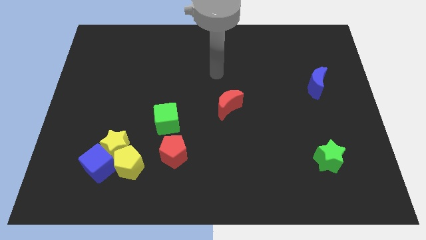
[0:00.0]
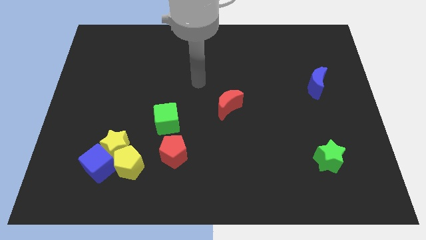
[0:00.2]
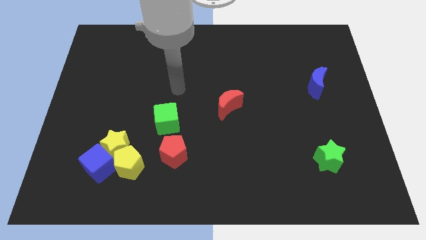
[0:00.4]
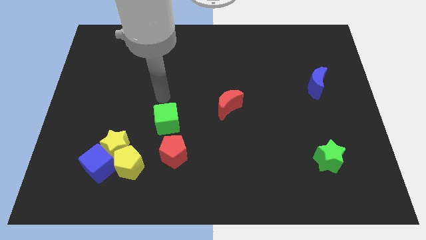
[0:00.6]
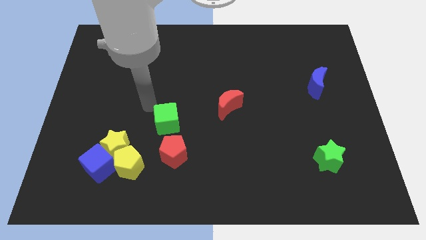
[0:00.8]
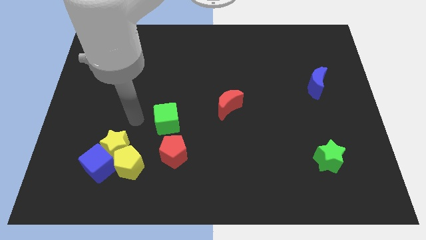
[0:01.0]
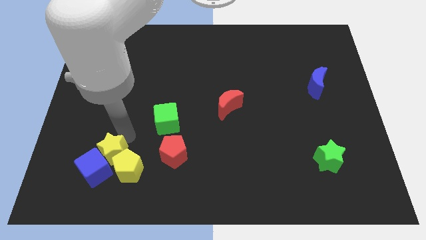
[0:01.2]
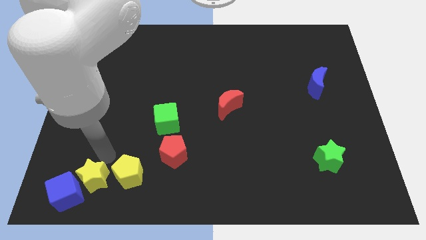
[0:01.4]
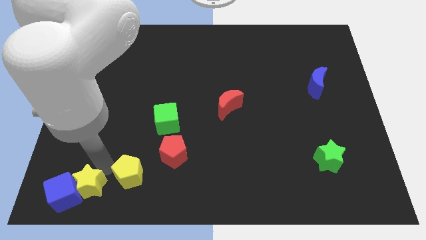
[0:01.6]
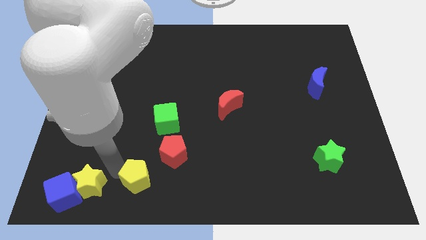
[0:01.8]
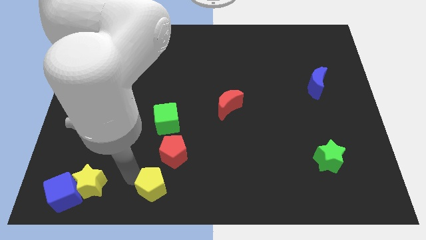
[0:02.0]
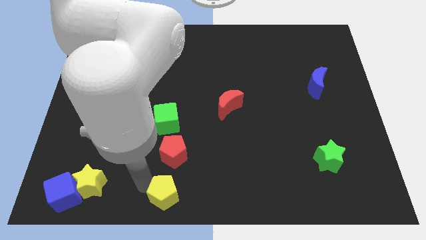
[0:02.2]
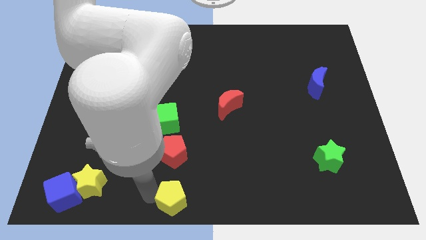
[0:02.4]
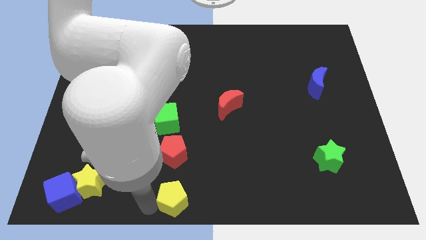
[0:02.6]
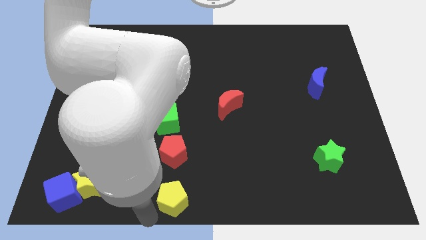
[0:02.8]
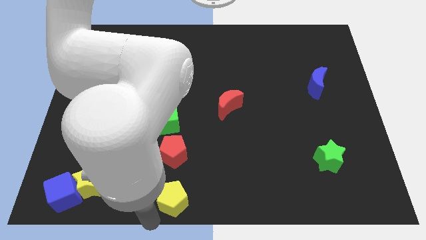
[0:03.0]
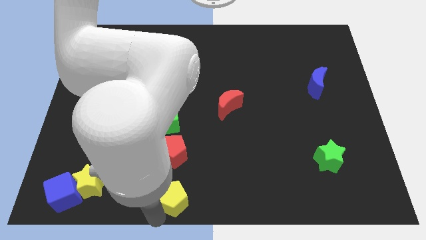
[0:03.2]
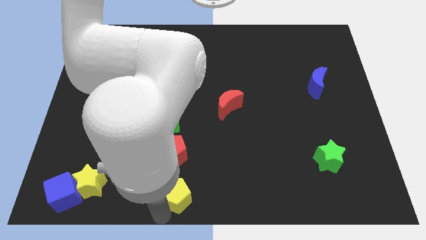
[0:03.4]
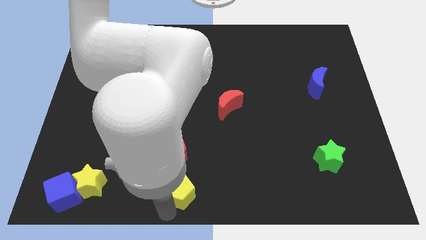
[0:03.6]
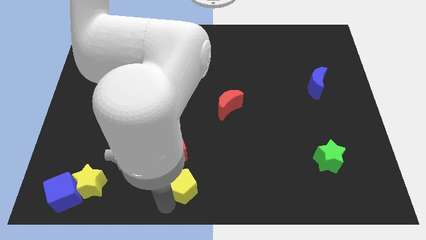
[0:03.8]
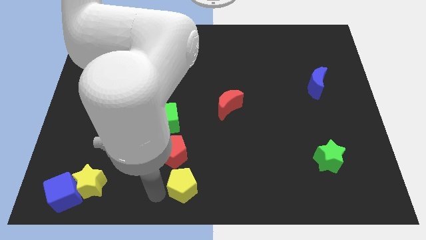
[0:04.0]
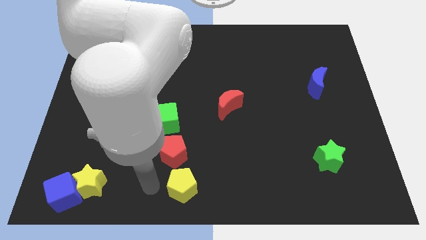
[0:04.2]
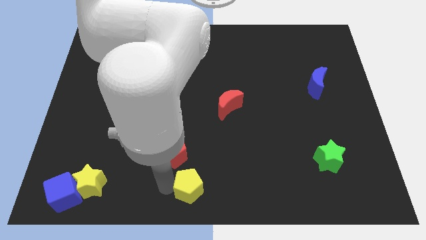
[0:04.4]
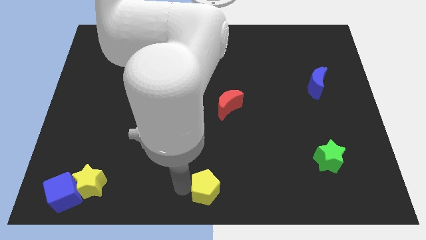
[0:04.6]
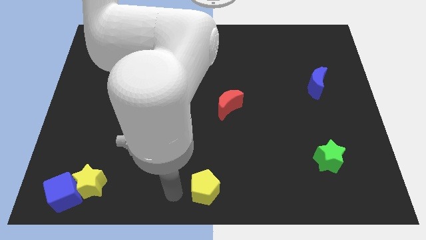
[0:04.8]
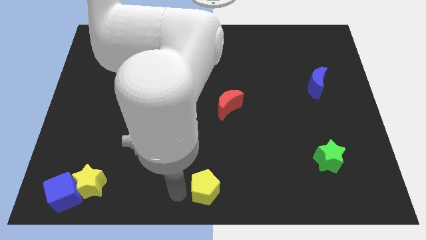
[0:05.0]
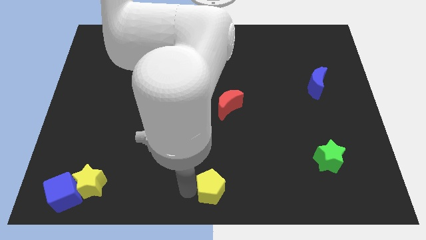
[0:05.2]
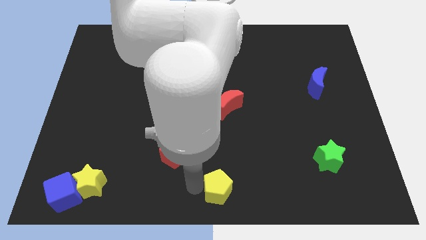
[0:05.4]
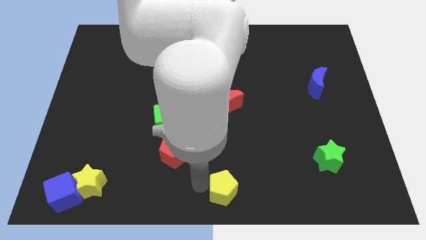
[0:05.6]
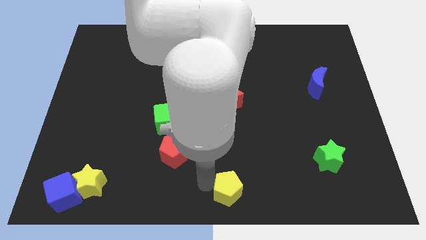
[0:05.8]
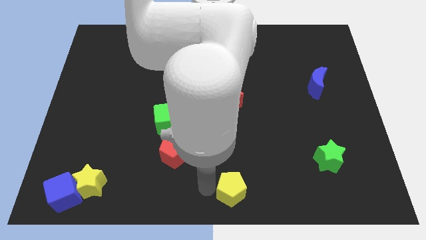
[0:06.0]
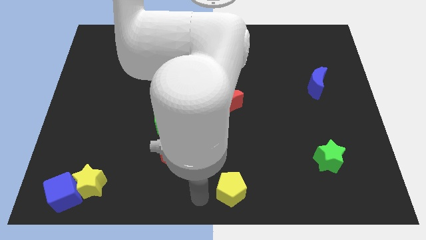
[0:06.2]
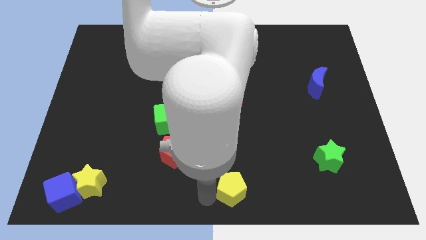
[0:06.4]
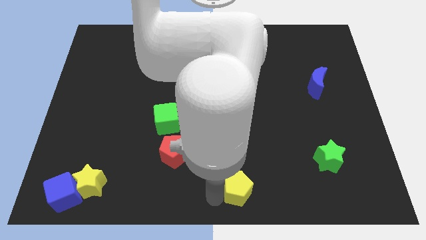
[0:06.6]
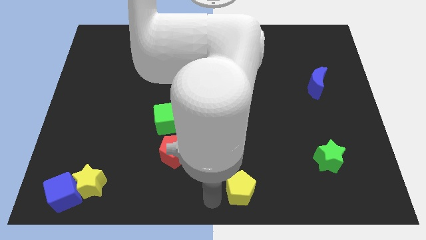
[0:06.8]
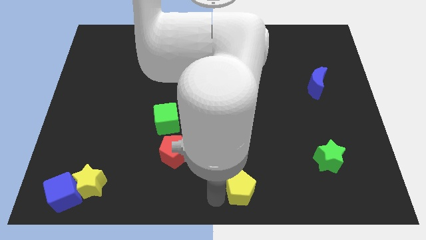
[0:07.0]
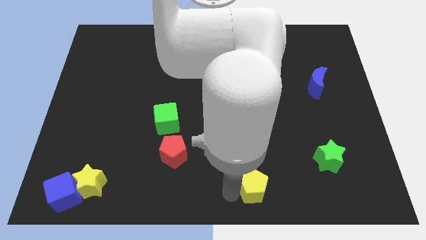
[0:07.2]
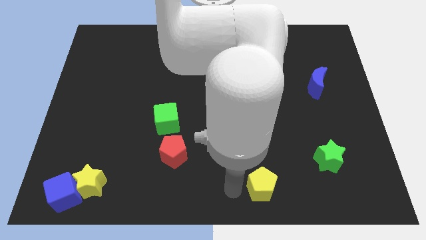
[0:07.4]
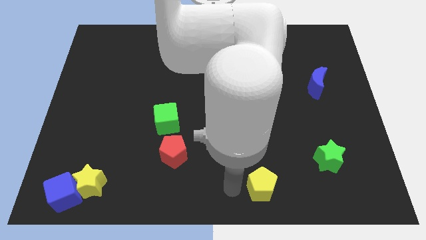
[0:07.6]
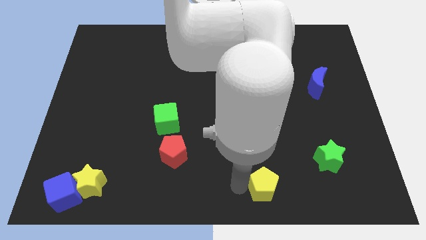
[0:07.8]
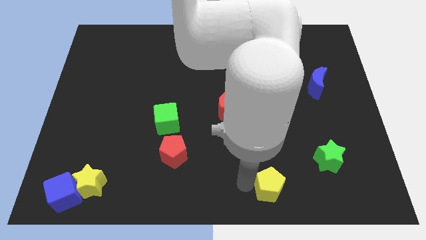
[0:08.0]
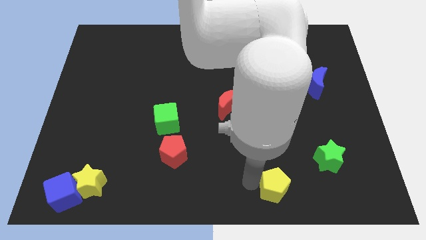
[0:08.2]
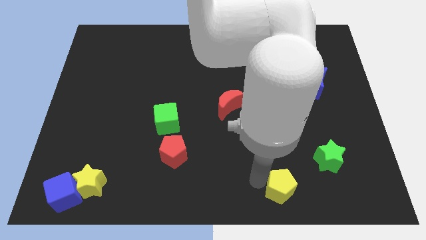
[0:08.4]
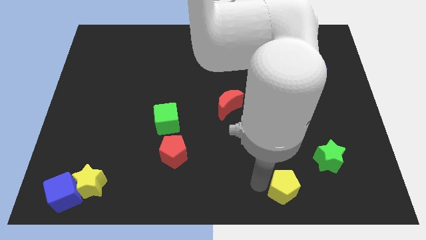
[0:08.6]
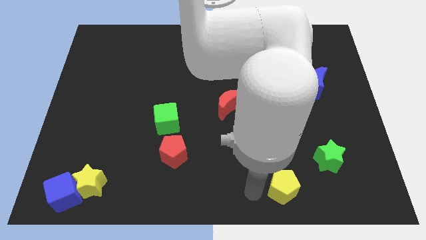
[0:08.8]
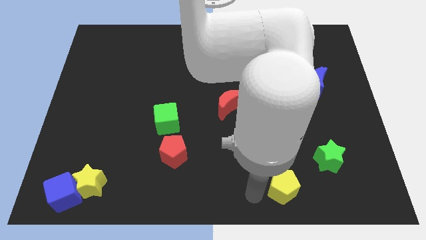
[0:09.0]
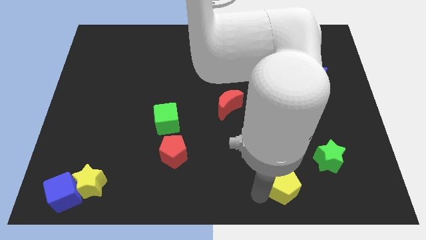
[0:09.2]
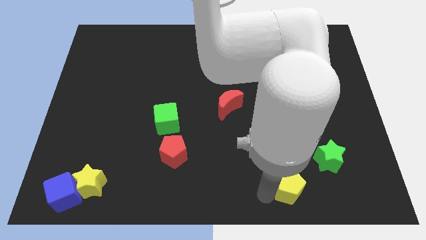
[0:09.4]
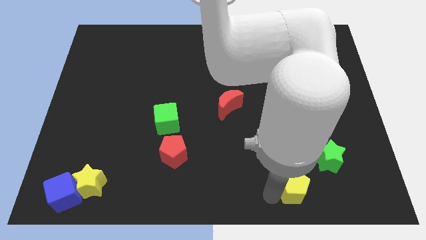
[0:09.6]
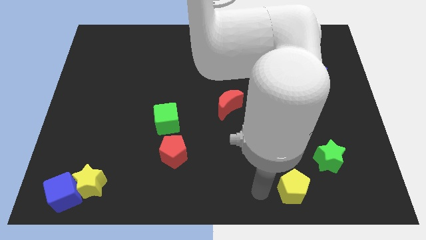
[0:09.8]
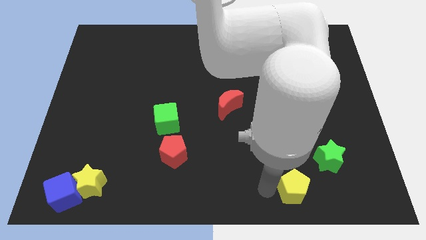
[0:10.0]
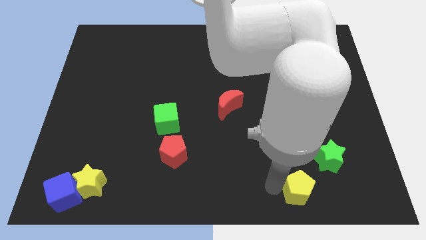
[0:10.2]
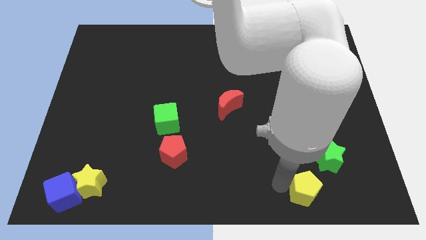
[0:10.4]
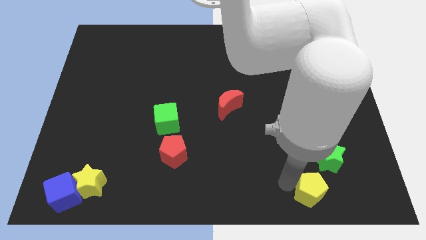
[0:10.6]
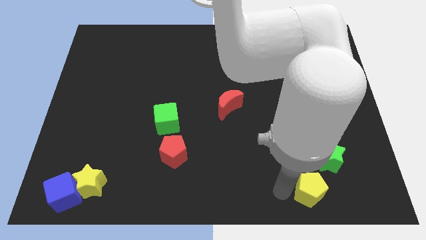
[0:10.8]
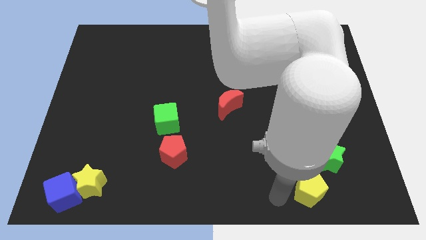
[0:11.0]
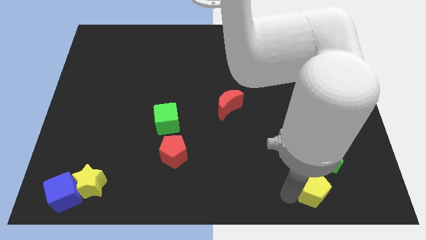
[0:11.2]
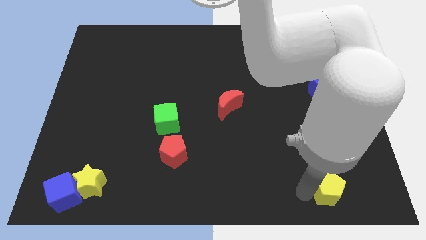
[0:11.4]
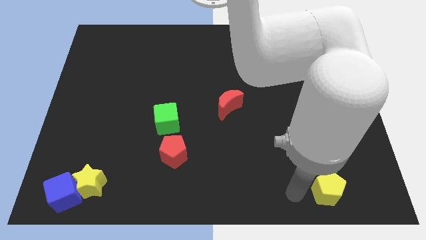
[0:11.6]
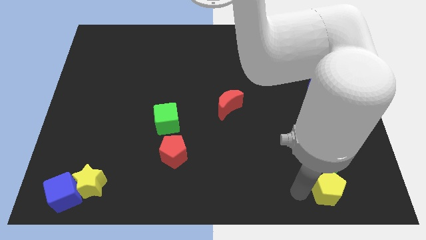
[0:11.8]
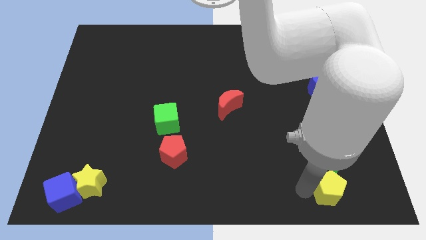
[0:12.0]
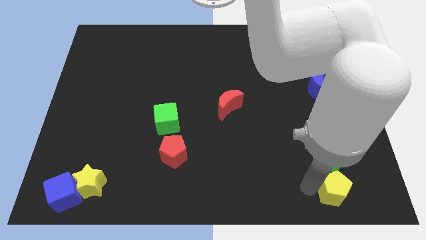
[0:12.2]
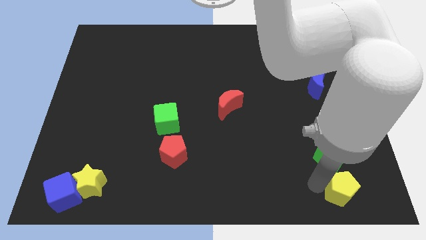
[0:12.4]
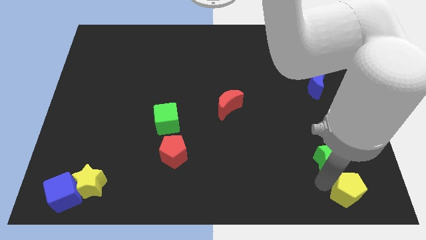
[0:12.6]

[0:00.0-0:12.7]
slide the yellow pentagon to the lower right corner
